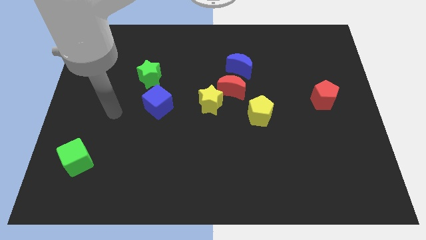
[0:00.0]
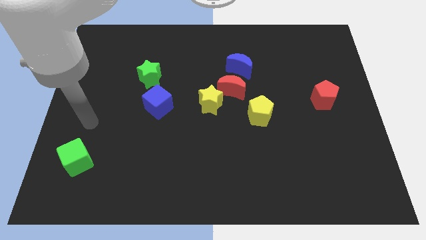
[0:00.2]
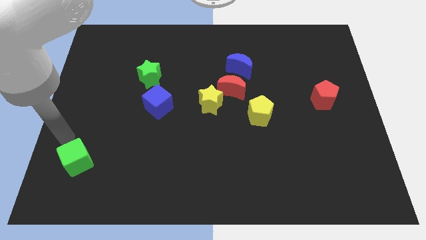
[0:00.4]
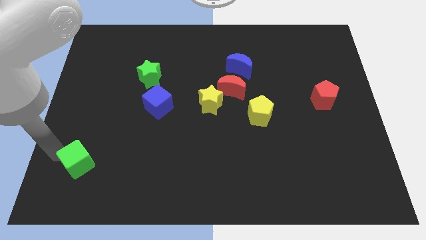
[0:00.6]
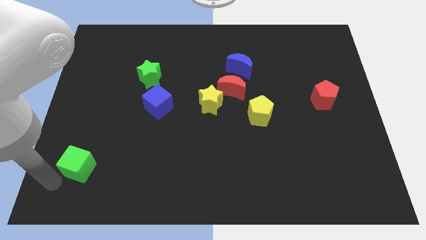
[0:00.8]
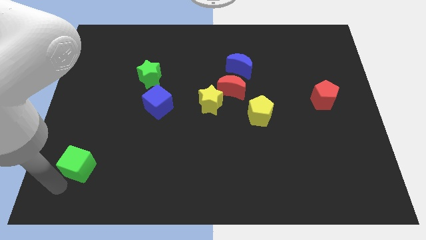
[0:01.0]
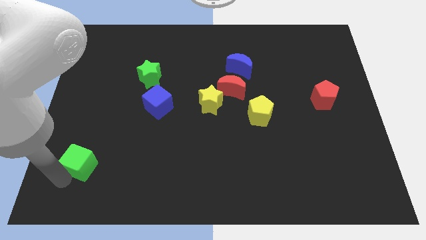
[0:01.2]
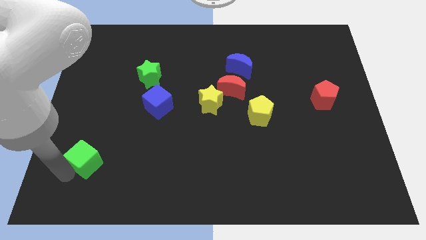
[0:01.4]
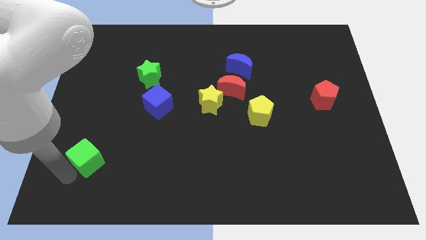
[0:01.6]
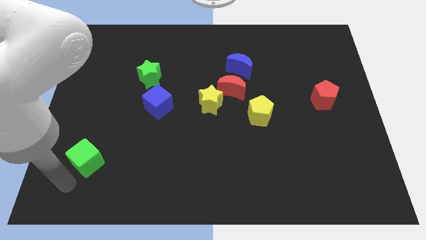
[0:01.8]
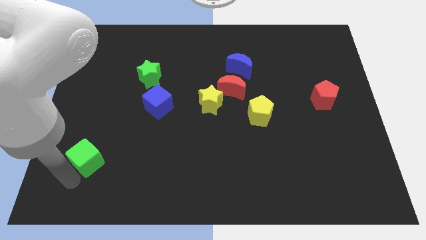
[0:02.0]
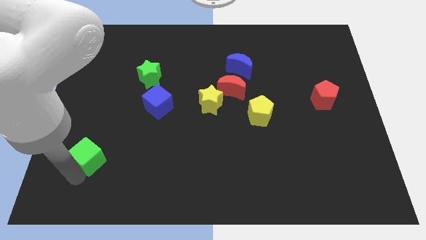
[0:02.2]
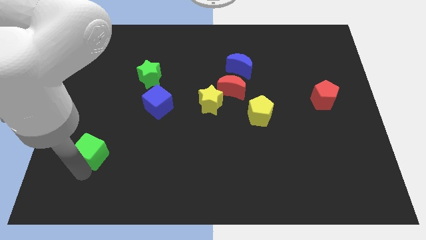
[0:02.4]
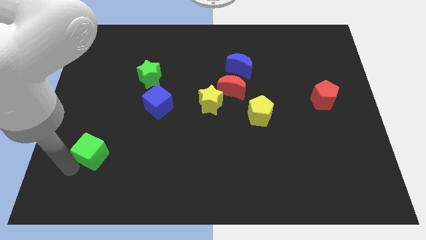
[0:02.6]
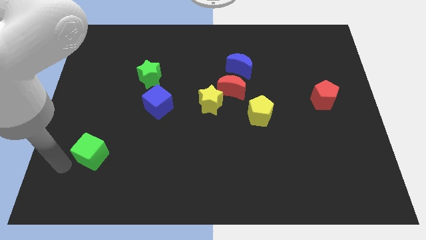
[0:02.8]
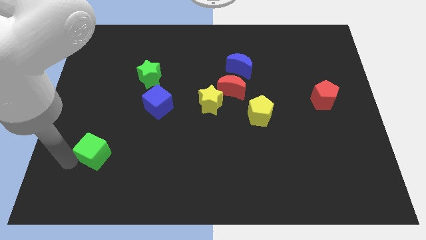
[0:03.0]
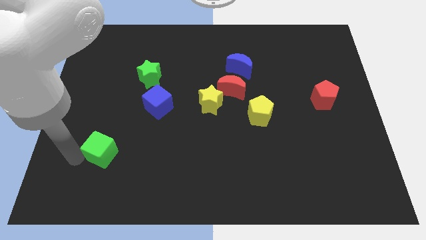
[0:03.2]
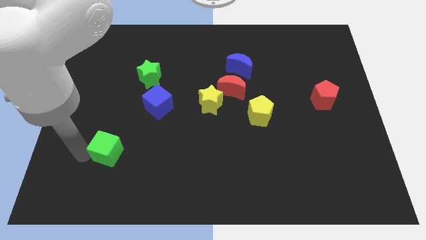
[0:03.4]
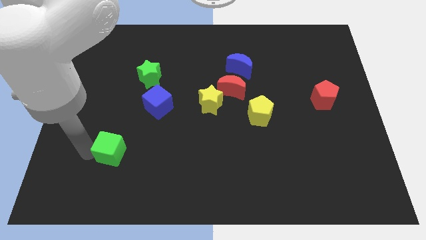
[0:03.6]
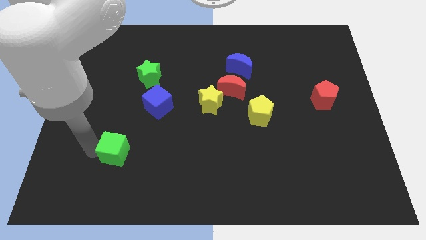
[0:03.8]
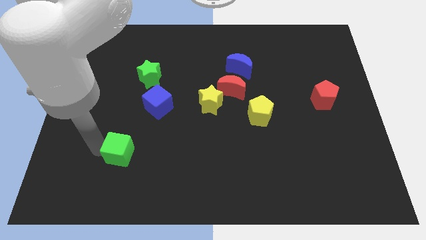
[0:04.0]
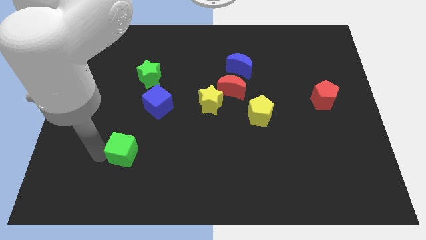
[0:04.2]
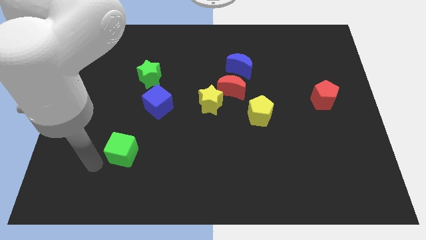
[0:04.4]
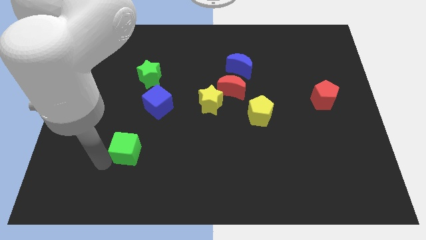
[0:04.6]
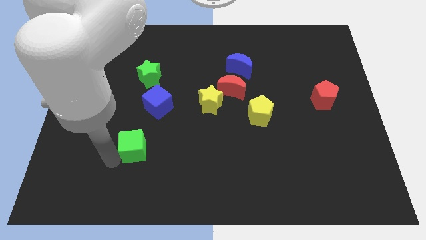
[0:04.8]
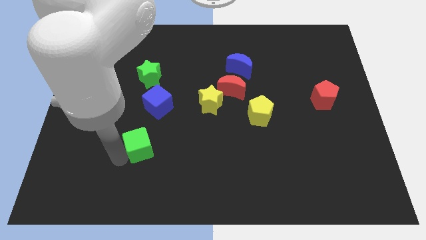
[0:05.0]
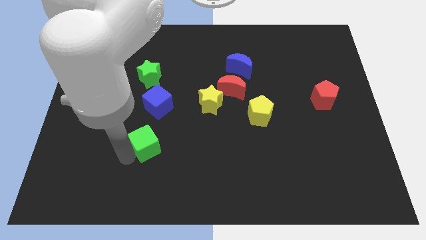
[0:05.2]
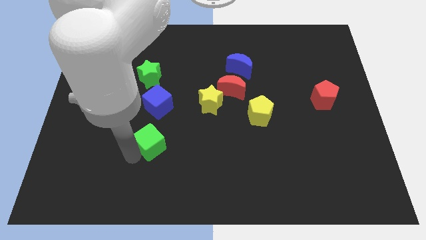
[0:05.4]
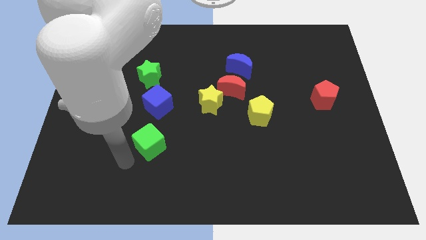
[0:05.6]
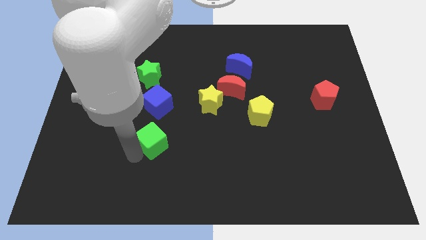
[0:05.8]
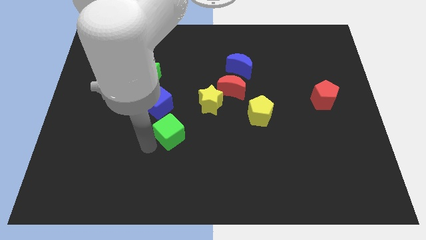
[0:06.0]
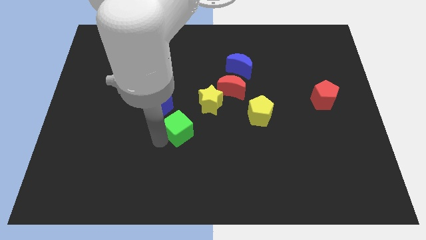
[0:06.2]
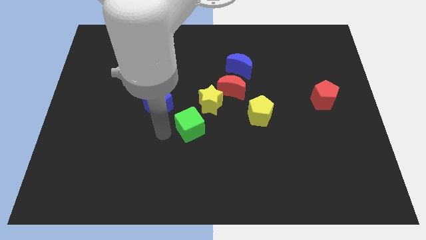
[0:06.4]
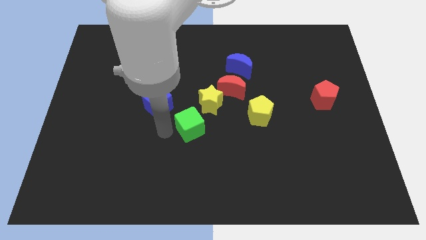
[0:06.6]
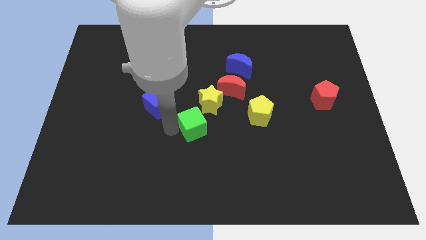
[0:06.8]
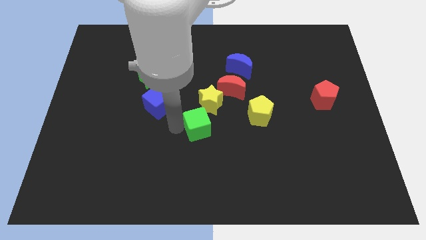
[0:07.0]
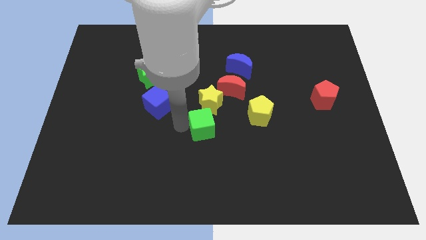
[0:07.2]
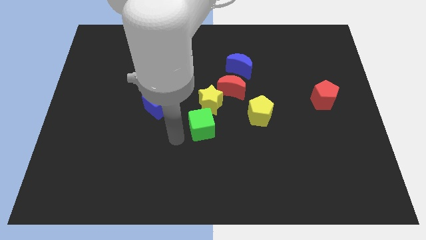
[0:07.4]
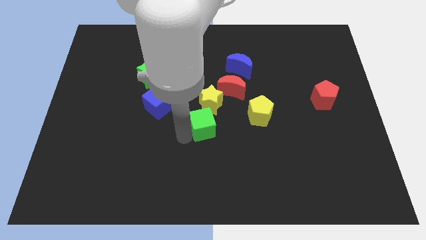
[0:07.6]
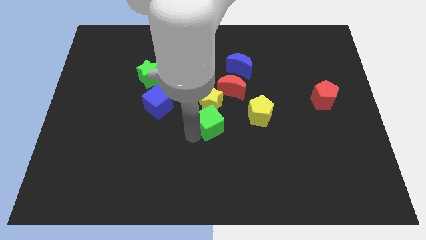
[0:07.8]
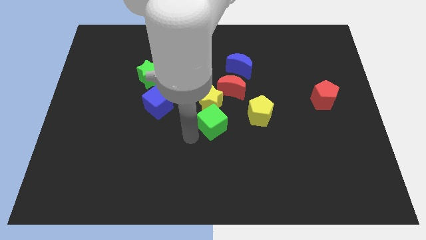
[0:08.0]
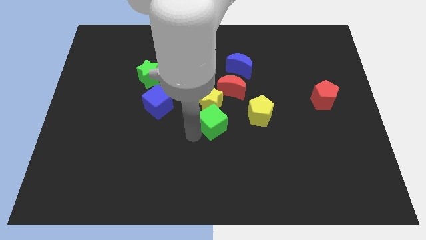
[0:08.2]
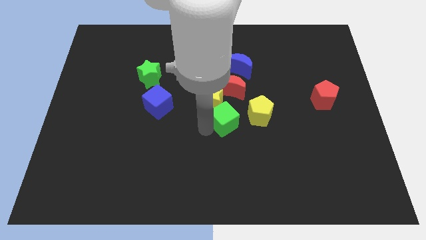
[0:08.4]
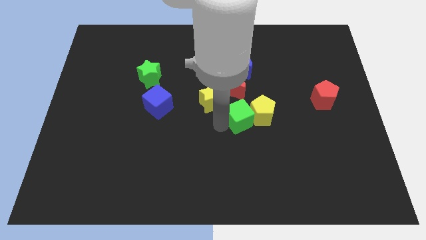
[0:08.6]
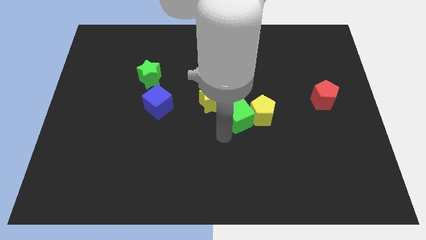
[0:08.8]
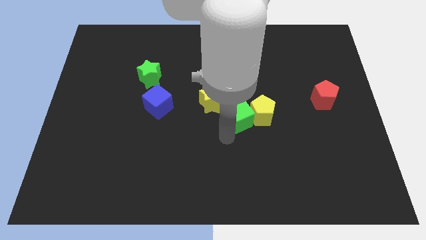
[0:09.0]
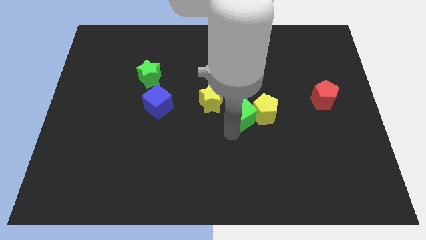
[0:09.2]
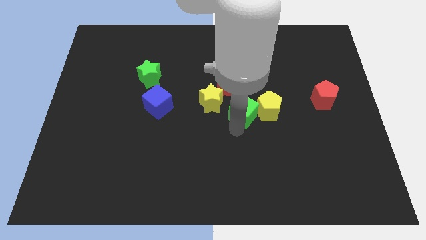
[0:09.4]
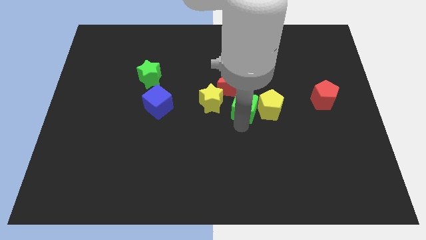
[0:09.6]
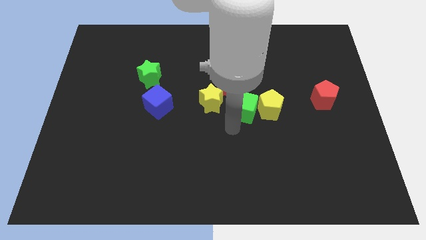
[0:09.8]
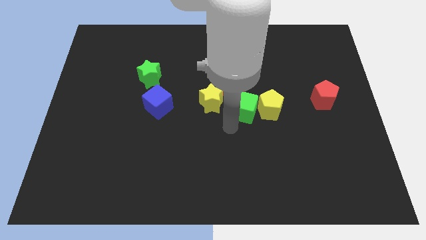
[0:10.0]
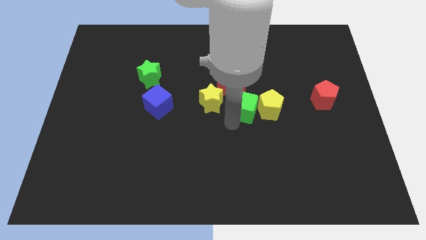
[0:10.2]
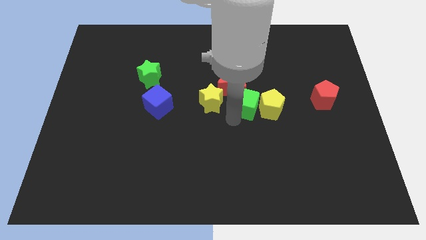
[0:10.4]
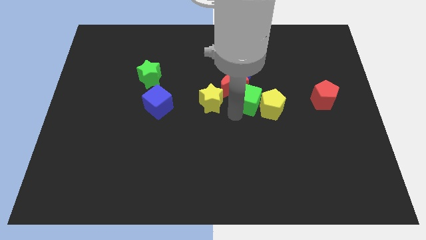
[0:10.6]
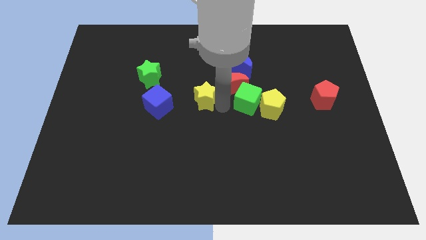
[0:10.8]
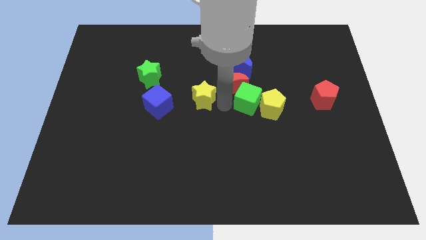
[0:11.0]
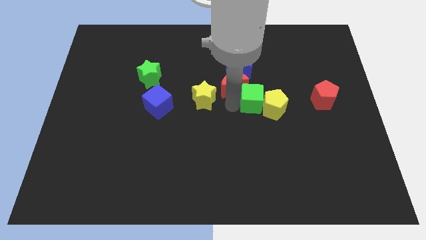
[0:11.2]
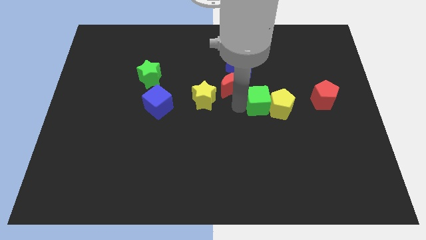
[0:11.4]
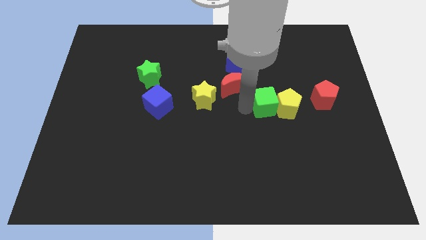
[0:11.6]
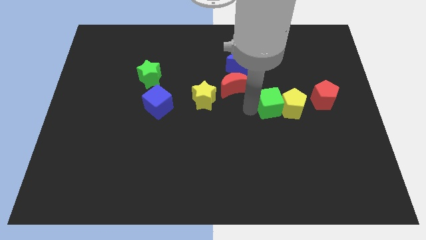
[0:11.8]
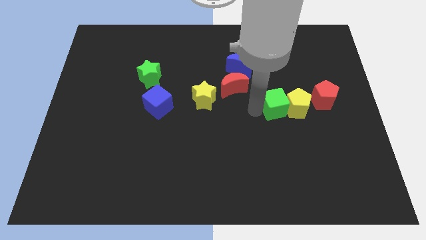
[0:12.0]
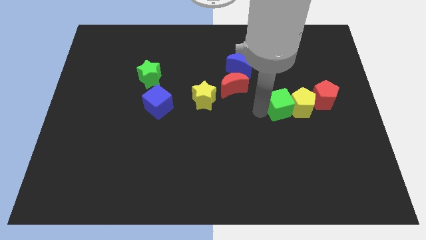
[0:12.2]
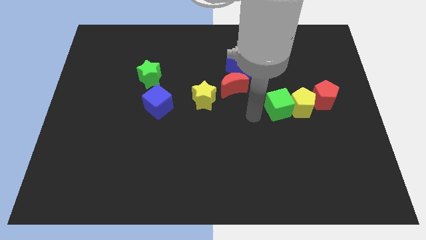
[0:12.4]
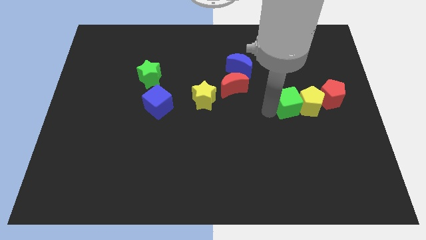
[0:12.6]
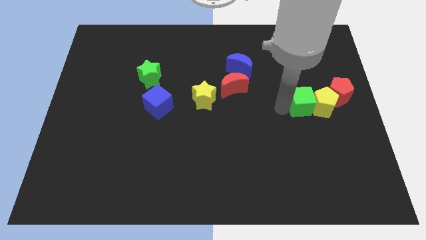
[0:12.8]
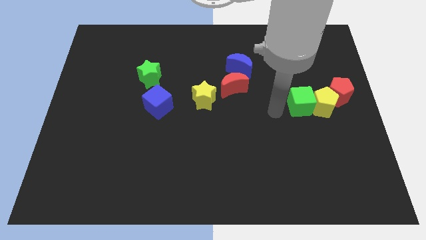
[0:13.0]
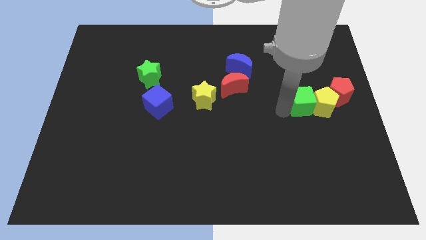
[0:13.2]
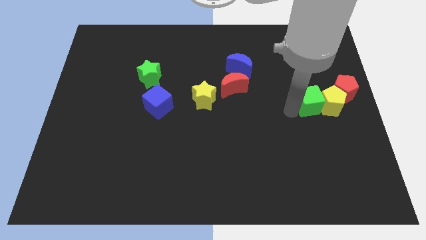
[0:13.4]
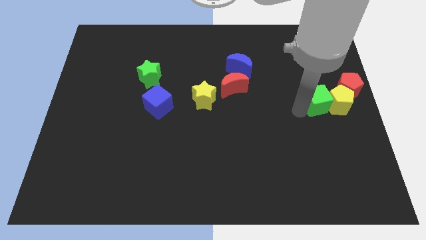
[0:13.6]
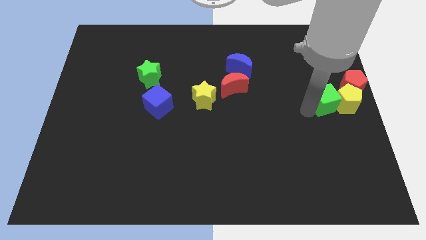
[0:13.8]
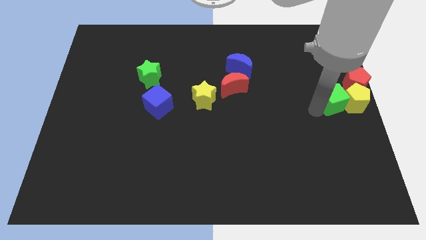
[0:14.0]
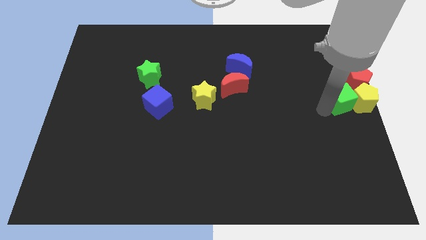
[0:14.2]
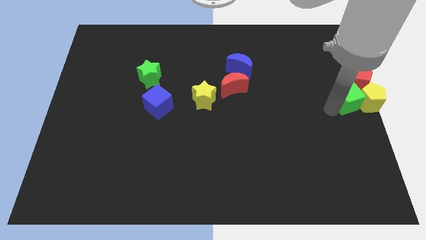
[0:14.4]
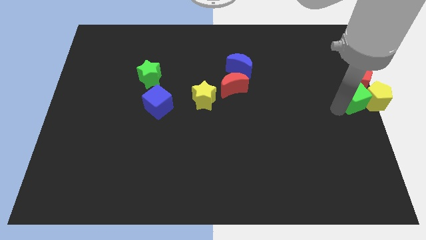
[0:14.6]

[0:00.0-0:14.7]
put the green cube next to the red pentagon
